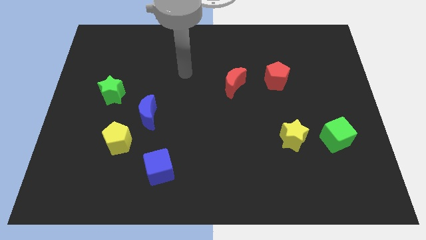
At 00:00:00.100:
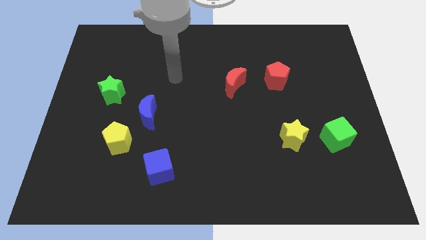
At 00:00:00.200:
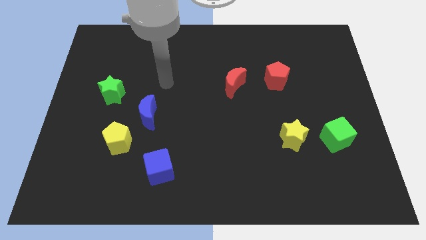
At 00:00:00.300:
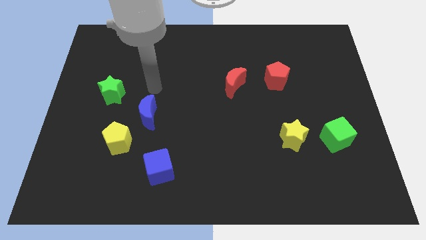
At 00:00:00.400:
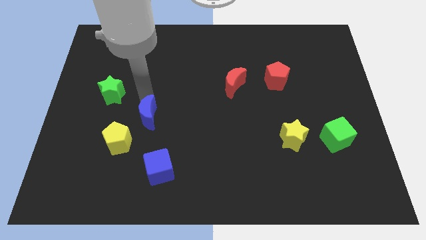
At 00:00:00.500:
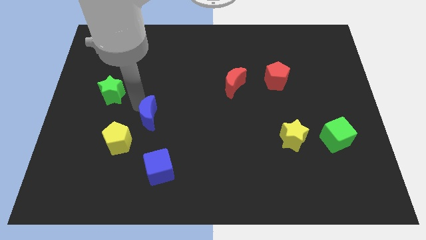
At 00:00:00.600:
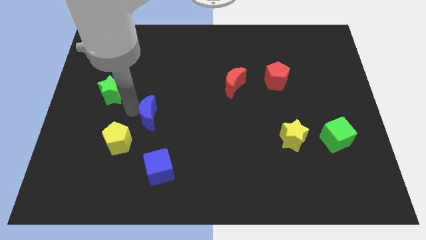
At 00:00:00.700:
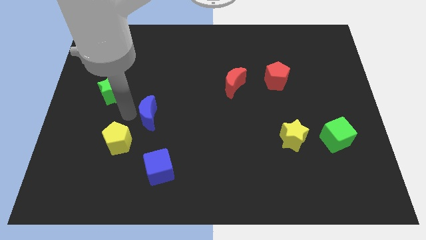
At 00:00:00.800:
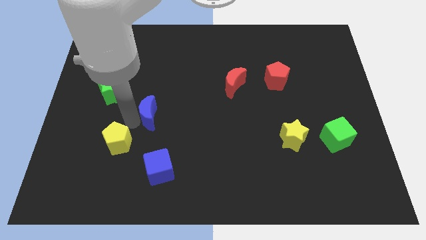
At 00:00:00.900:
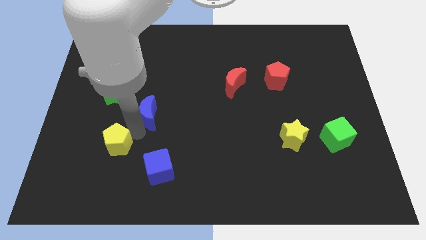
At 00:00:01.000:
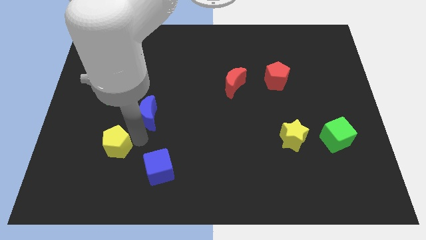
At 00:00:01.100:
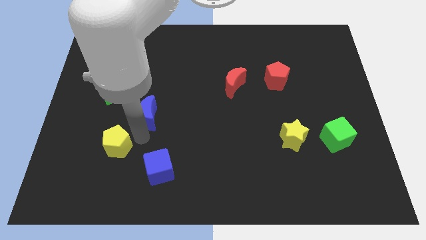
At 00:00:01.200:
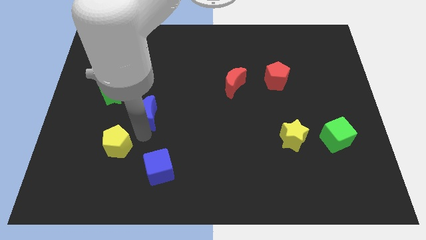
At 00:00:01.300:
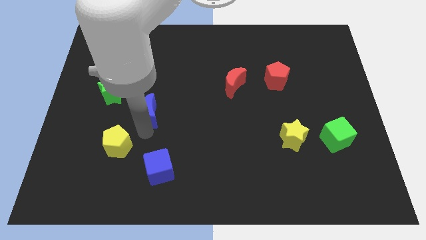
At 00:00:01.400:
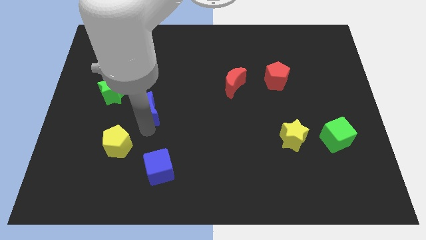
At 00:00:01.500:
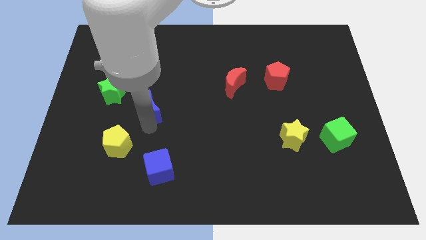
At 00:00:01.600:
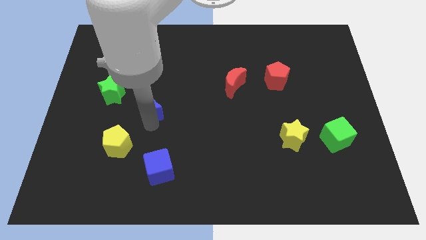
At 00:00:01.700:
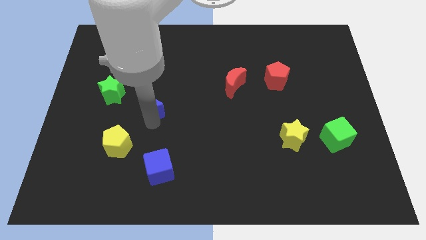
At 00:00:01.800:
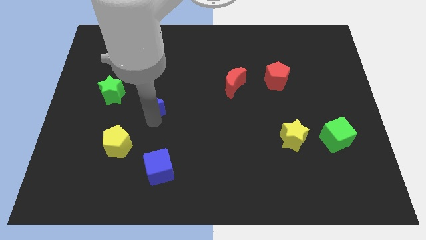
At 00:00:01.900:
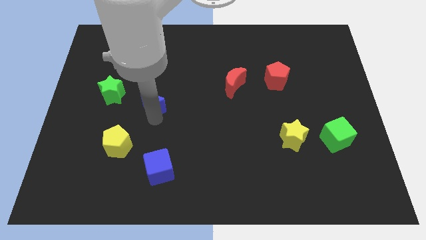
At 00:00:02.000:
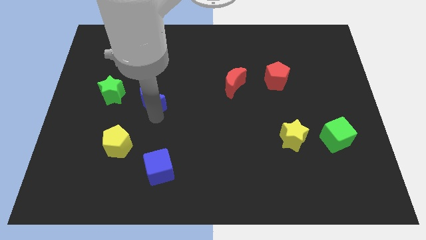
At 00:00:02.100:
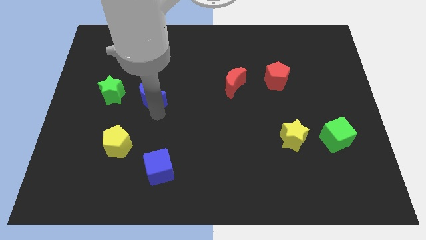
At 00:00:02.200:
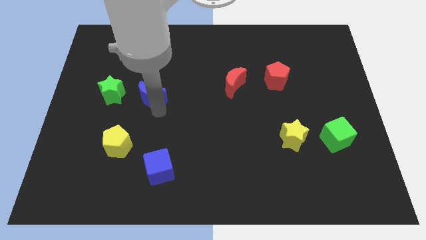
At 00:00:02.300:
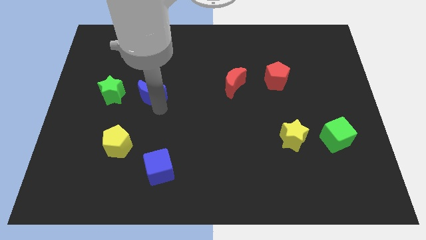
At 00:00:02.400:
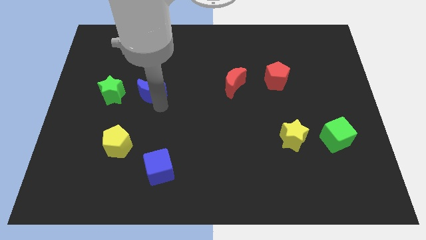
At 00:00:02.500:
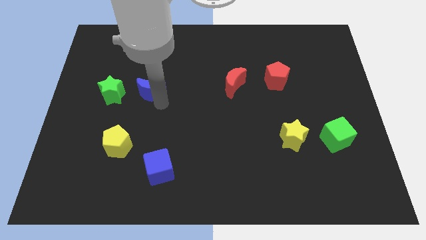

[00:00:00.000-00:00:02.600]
push the blue moon a little upwards

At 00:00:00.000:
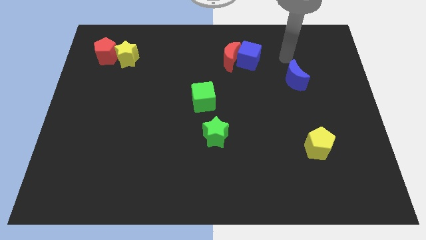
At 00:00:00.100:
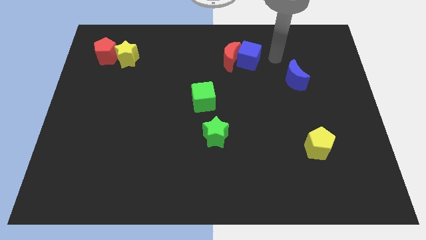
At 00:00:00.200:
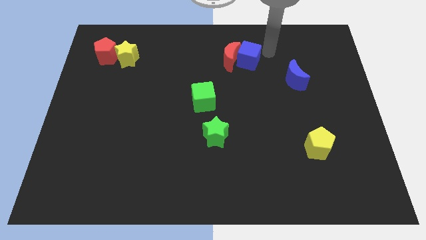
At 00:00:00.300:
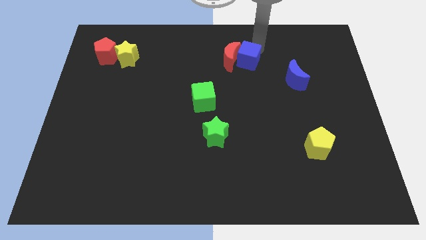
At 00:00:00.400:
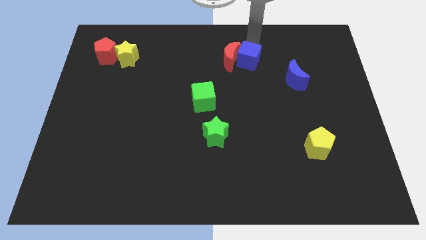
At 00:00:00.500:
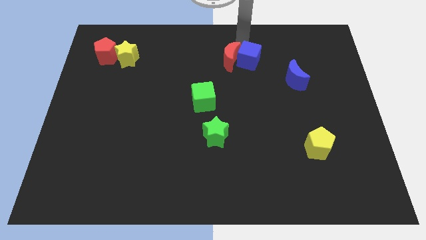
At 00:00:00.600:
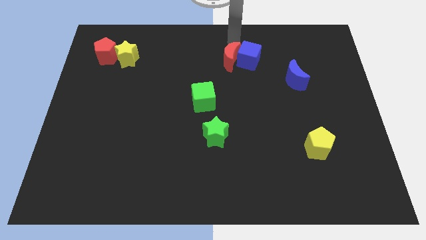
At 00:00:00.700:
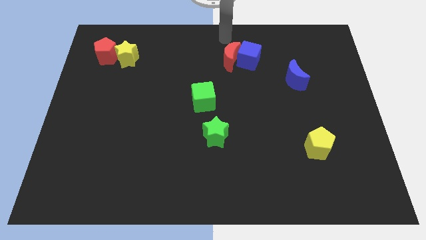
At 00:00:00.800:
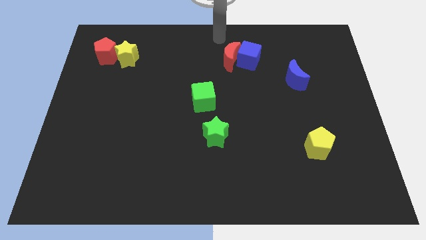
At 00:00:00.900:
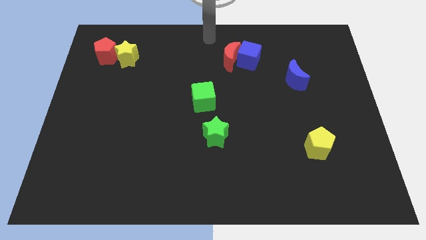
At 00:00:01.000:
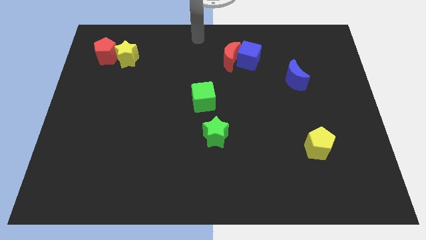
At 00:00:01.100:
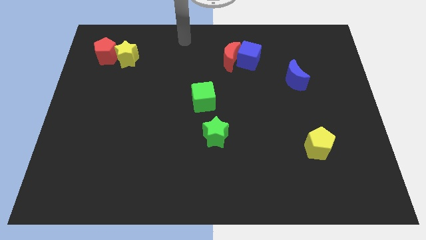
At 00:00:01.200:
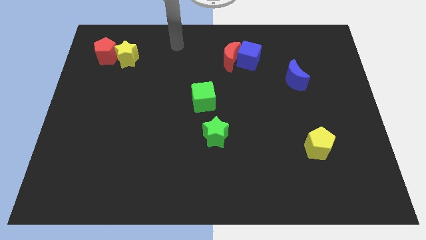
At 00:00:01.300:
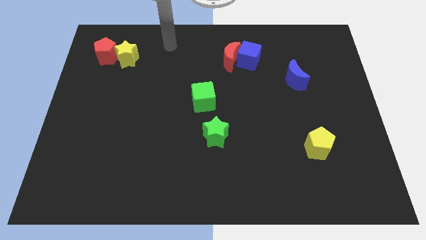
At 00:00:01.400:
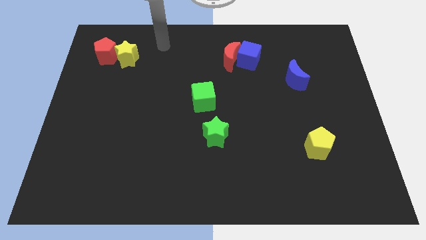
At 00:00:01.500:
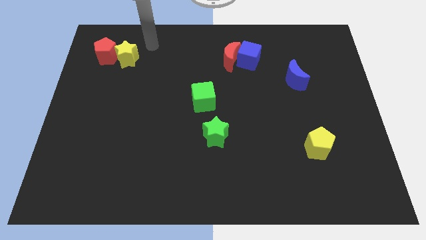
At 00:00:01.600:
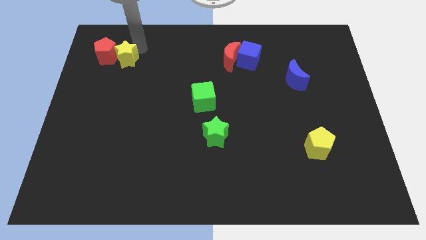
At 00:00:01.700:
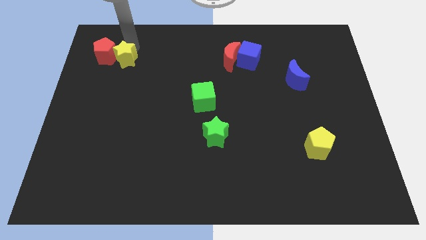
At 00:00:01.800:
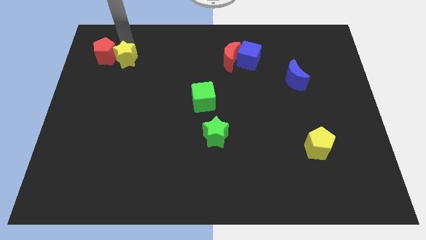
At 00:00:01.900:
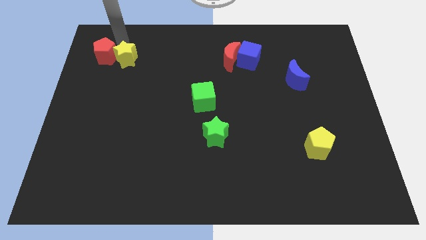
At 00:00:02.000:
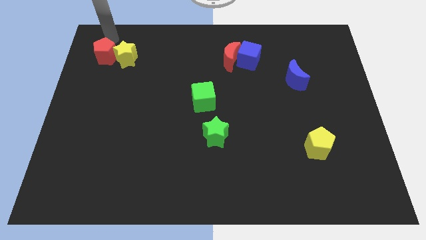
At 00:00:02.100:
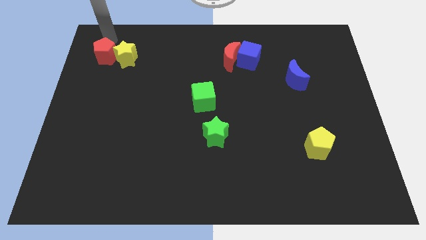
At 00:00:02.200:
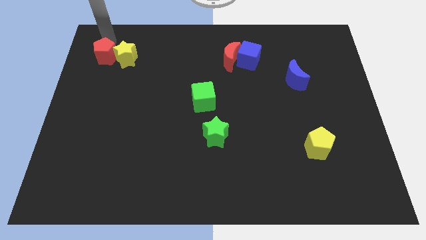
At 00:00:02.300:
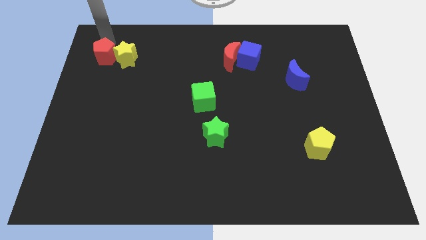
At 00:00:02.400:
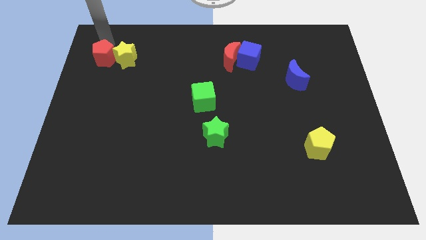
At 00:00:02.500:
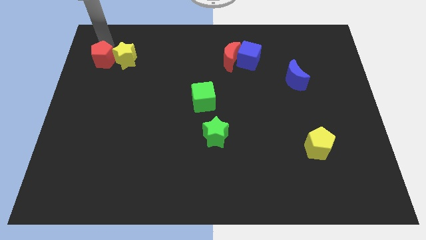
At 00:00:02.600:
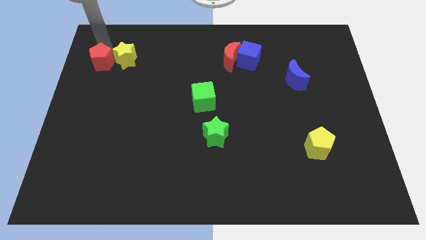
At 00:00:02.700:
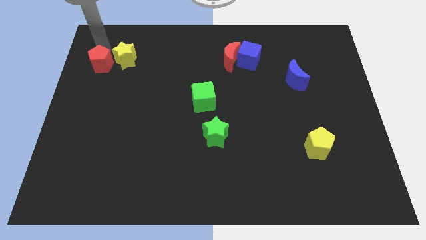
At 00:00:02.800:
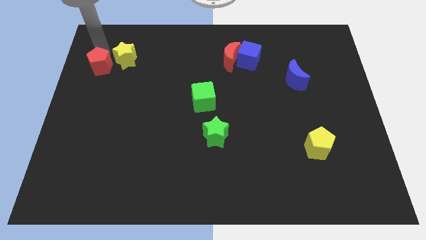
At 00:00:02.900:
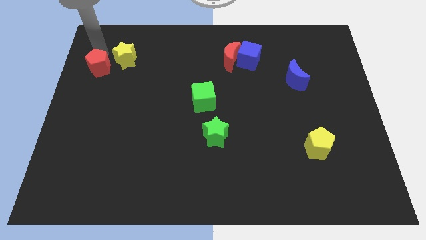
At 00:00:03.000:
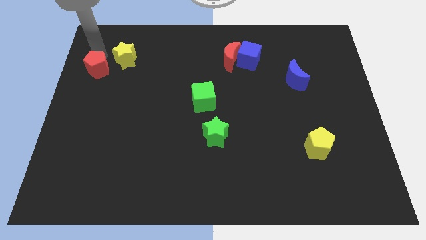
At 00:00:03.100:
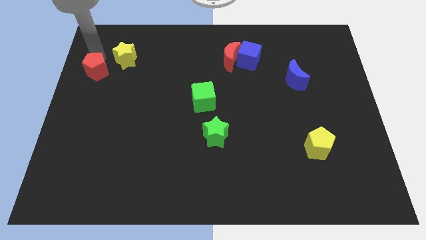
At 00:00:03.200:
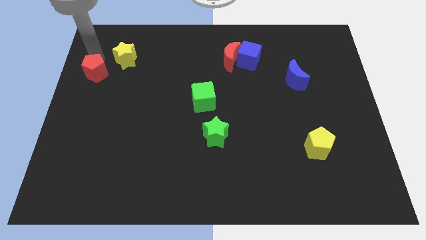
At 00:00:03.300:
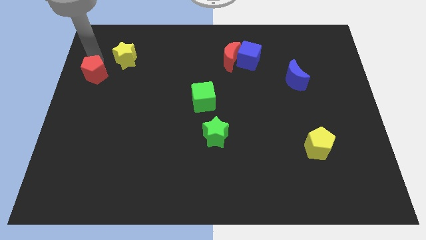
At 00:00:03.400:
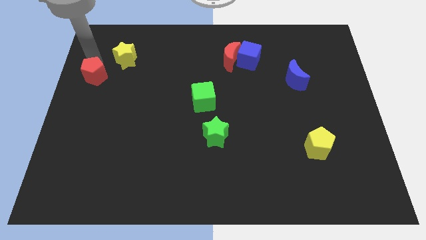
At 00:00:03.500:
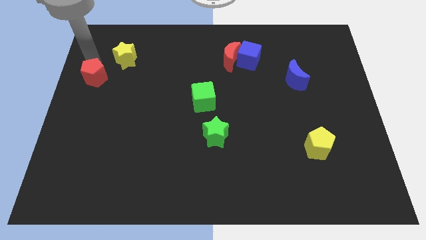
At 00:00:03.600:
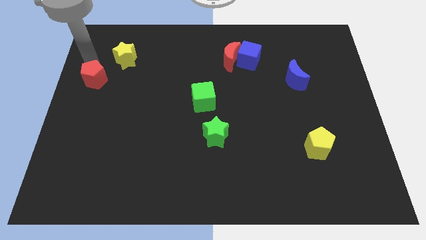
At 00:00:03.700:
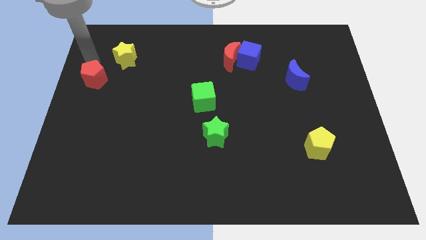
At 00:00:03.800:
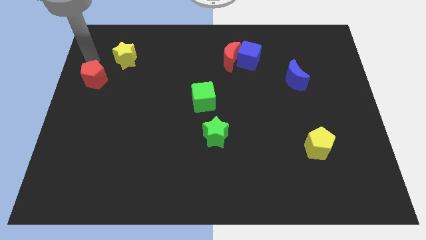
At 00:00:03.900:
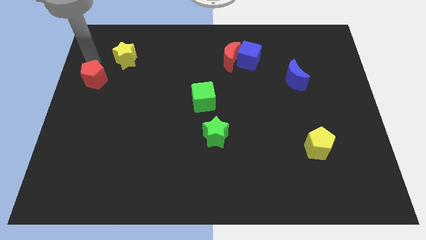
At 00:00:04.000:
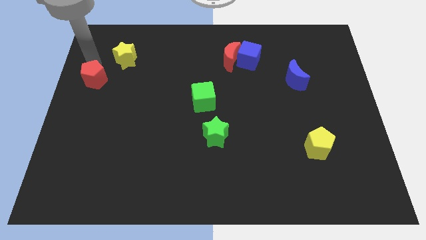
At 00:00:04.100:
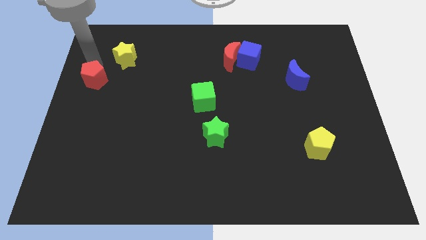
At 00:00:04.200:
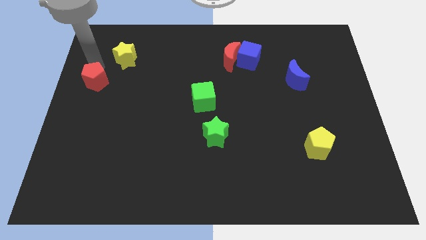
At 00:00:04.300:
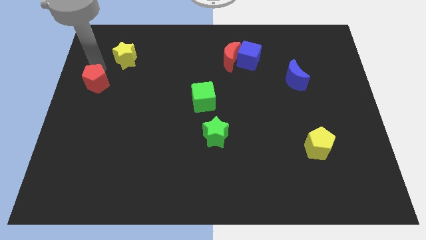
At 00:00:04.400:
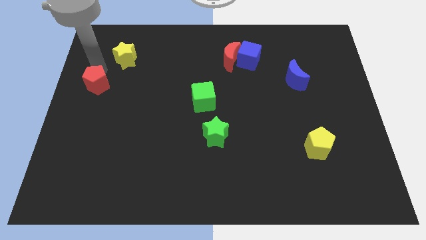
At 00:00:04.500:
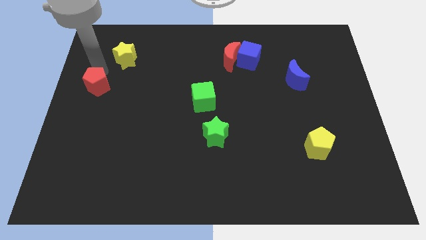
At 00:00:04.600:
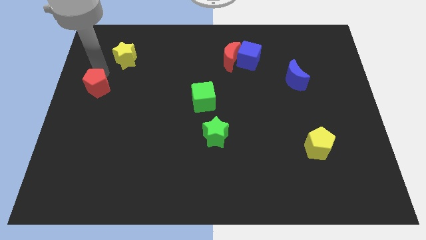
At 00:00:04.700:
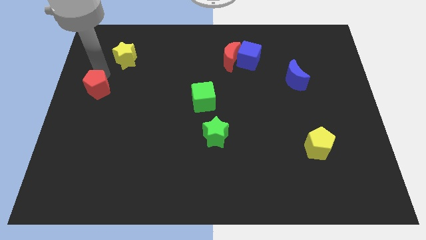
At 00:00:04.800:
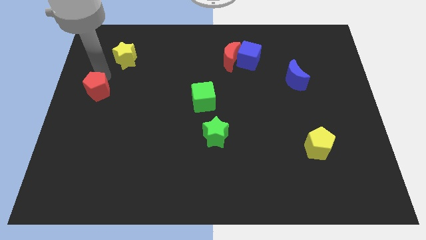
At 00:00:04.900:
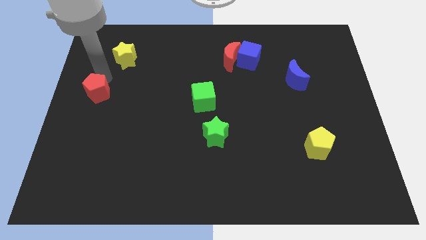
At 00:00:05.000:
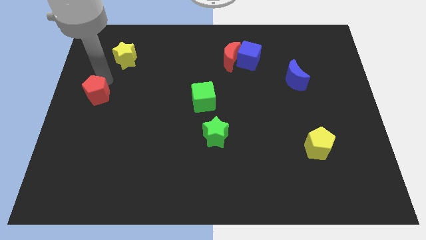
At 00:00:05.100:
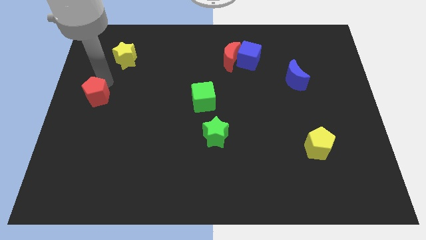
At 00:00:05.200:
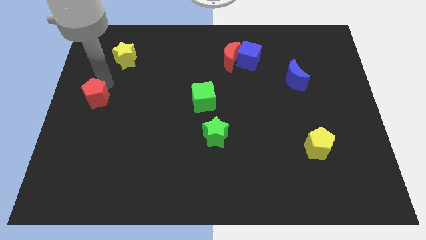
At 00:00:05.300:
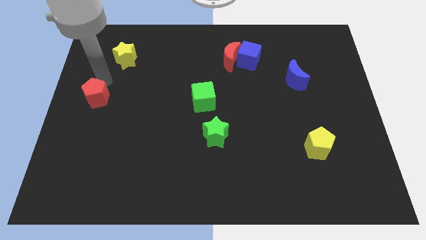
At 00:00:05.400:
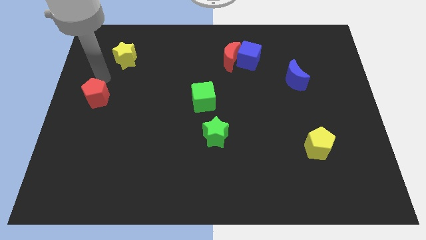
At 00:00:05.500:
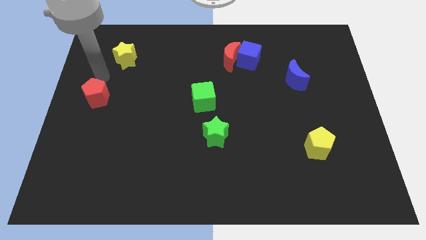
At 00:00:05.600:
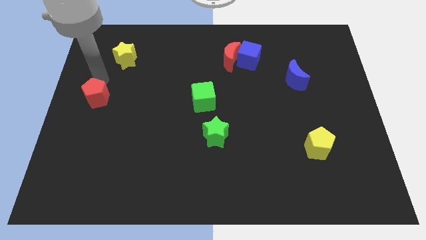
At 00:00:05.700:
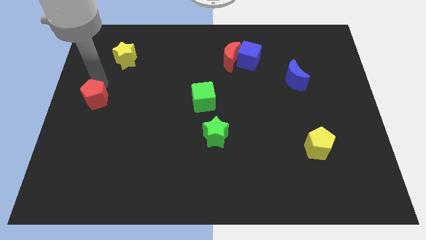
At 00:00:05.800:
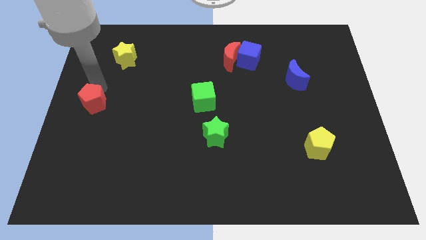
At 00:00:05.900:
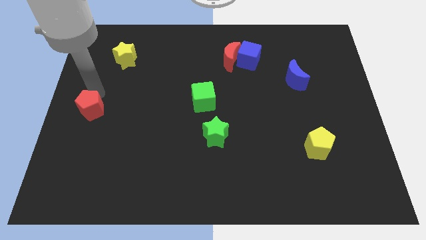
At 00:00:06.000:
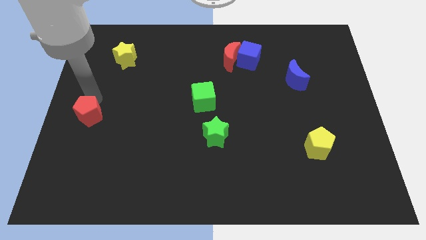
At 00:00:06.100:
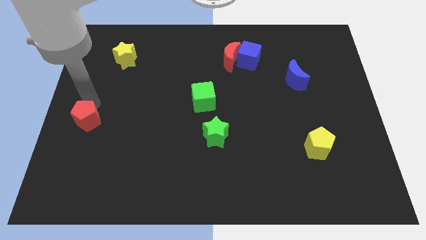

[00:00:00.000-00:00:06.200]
slide the red pentagon downwards
